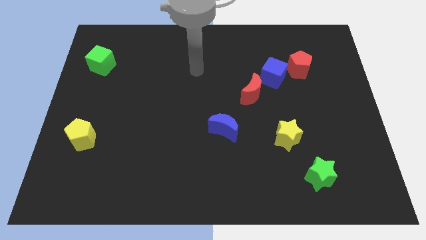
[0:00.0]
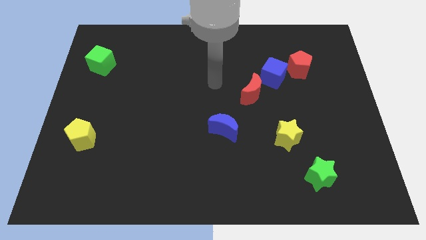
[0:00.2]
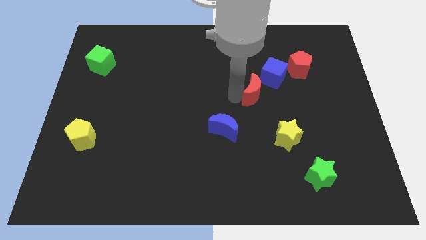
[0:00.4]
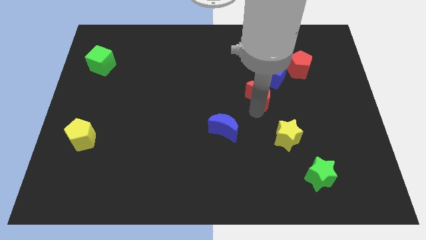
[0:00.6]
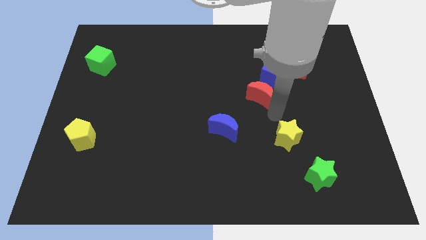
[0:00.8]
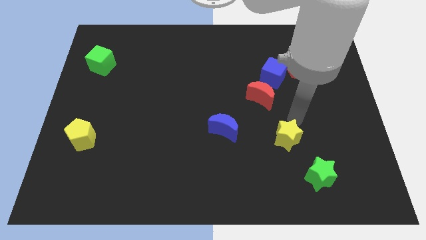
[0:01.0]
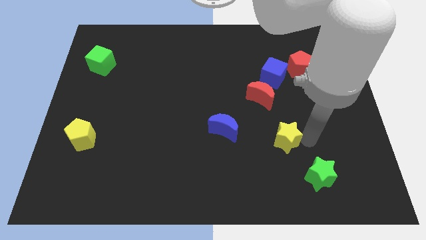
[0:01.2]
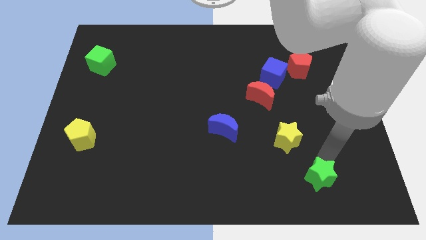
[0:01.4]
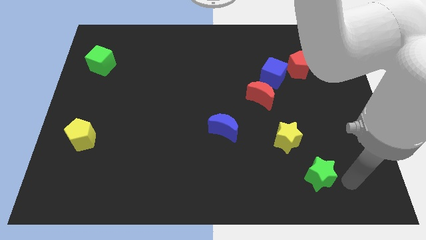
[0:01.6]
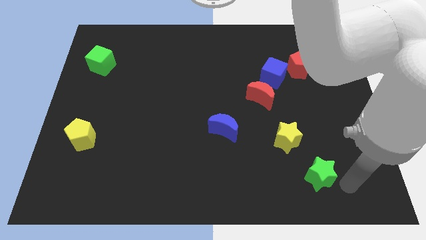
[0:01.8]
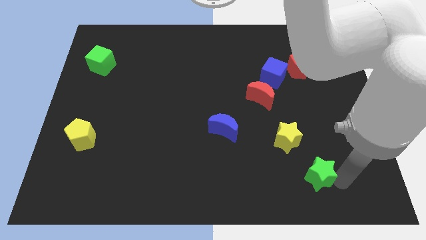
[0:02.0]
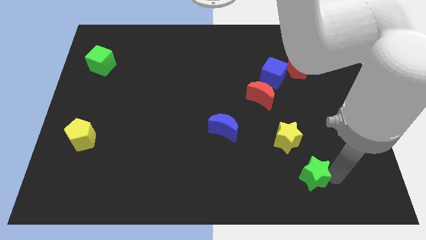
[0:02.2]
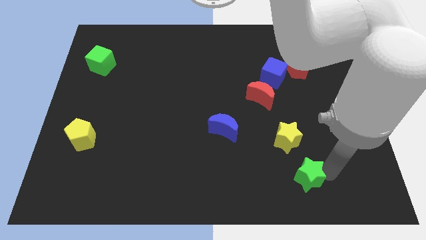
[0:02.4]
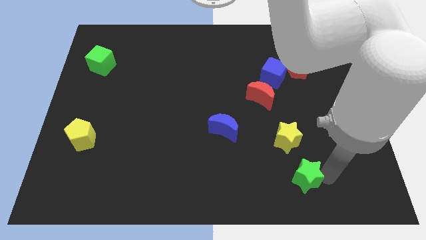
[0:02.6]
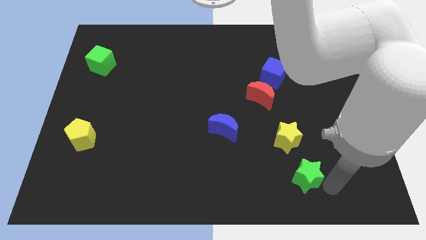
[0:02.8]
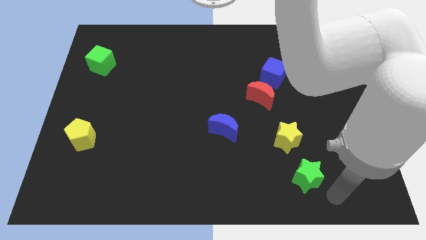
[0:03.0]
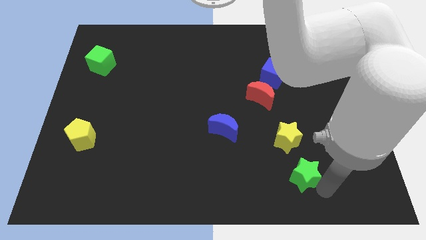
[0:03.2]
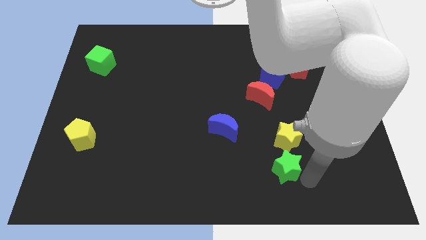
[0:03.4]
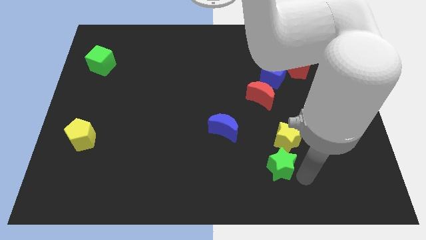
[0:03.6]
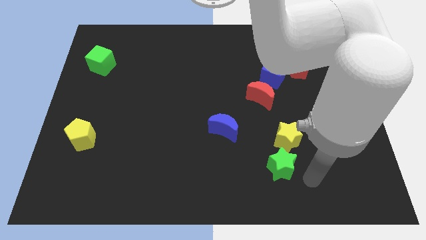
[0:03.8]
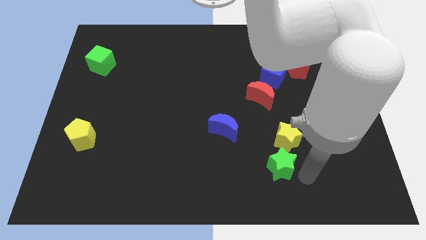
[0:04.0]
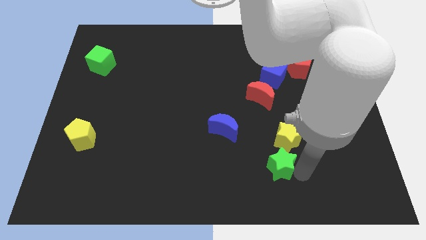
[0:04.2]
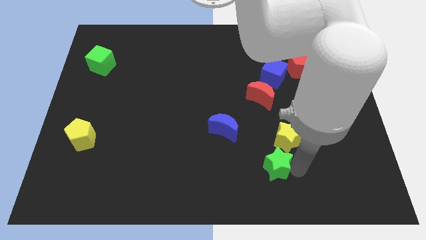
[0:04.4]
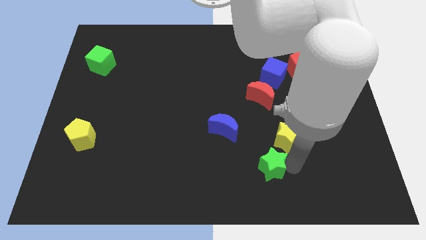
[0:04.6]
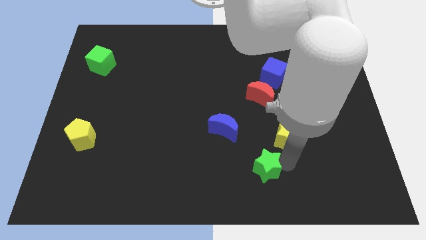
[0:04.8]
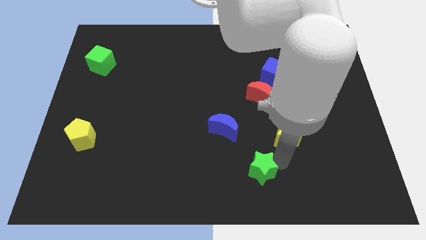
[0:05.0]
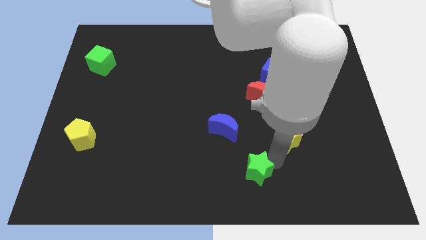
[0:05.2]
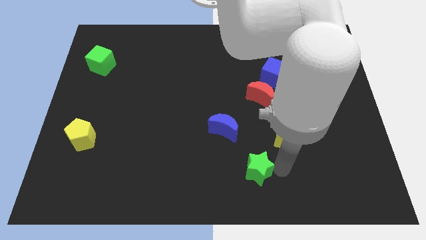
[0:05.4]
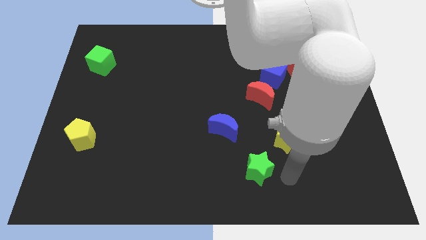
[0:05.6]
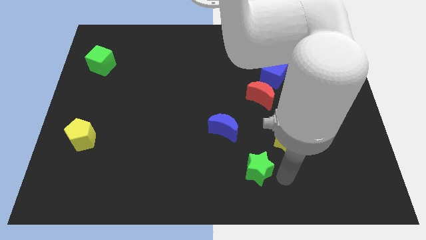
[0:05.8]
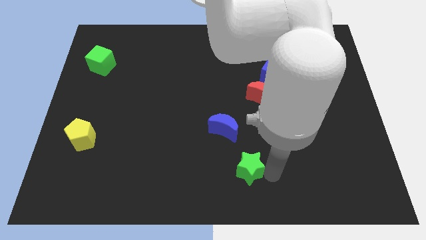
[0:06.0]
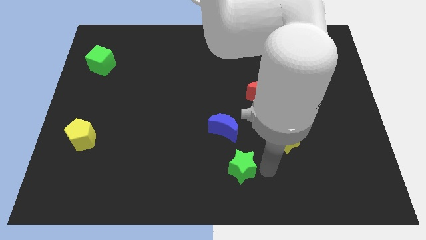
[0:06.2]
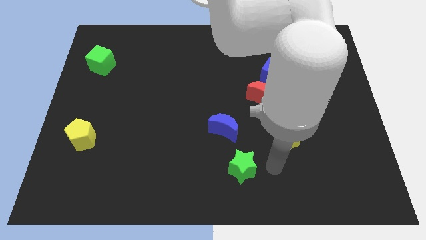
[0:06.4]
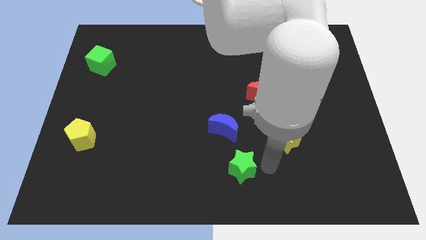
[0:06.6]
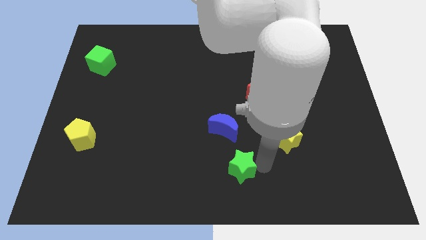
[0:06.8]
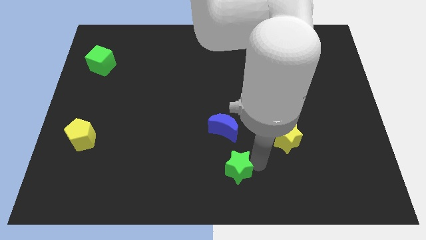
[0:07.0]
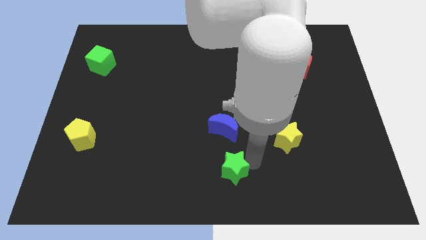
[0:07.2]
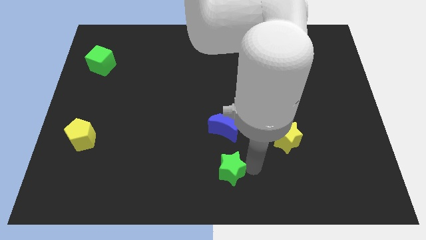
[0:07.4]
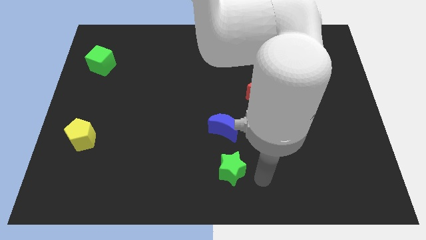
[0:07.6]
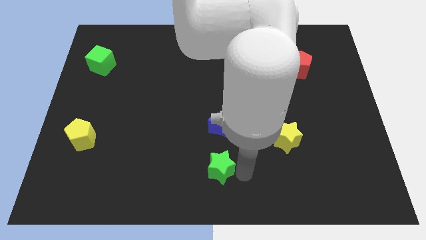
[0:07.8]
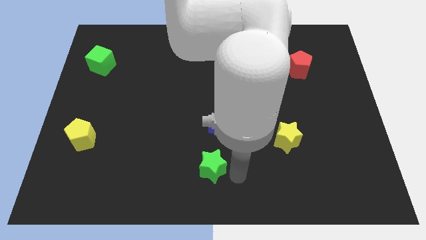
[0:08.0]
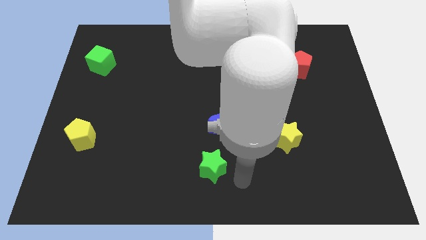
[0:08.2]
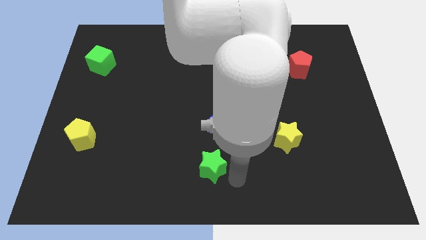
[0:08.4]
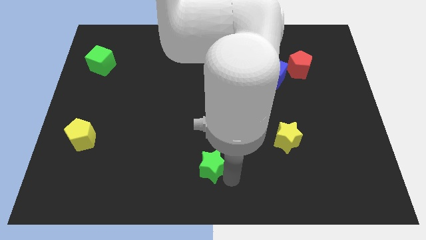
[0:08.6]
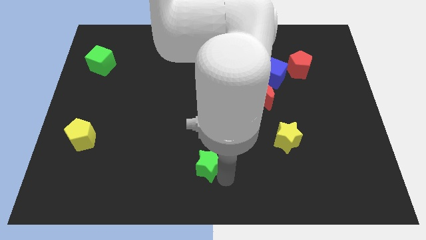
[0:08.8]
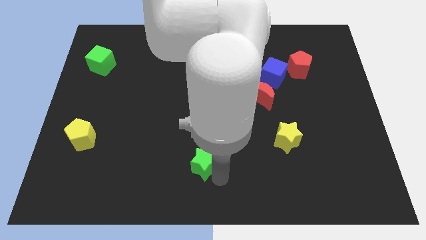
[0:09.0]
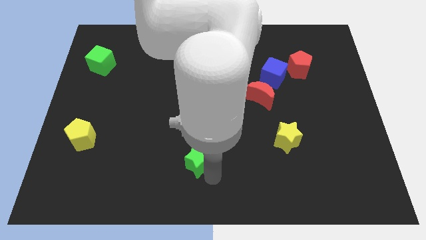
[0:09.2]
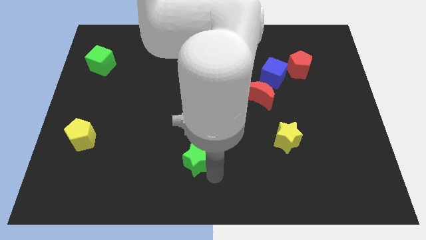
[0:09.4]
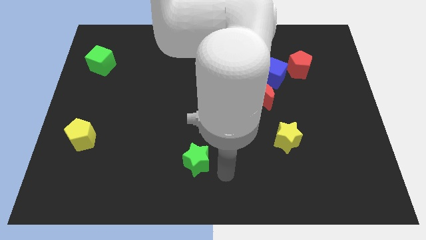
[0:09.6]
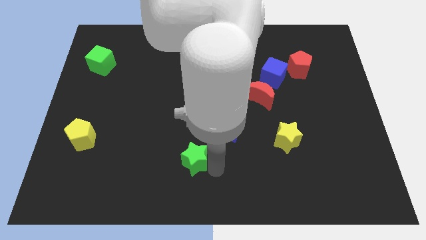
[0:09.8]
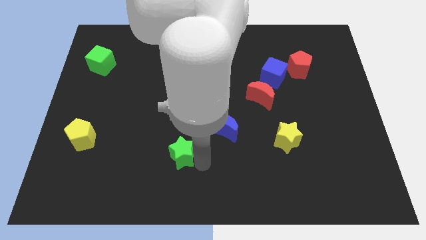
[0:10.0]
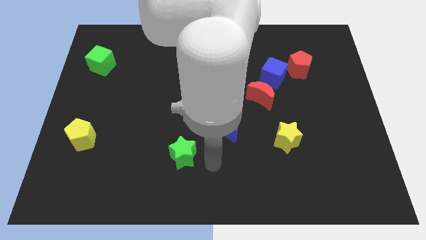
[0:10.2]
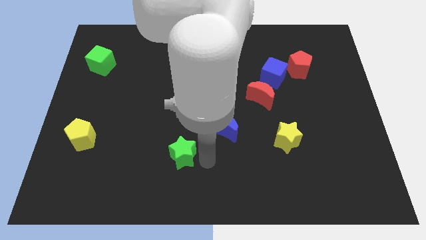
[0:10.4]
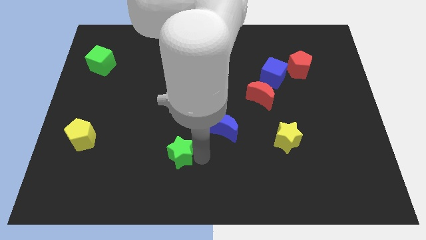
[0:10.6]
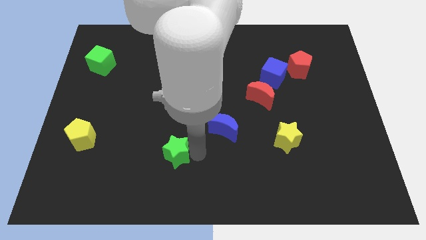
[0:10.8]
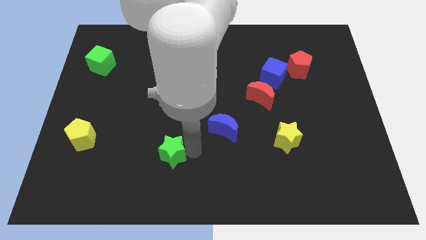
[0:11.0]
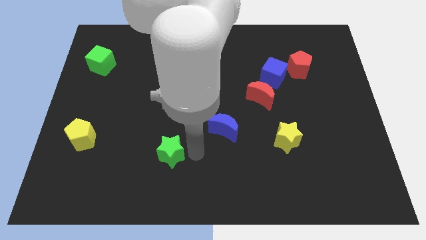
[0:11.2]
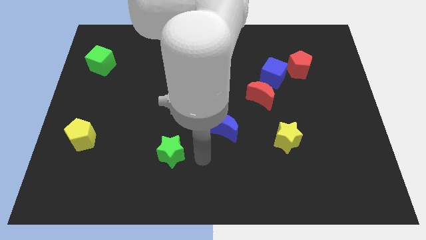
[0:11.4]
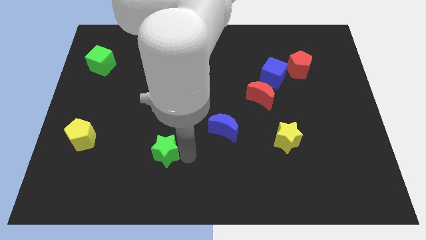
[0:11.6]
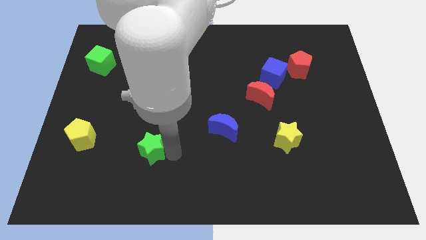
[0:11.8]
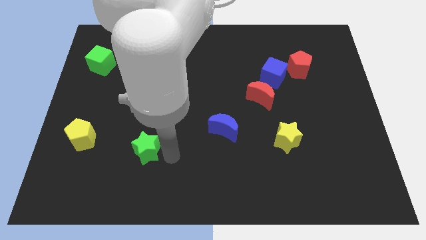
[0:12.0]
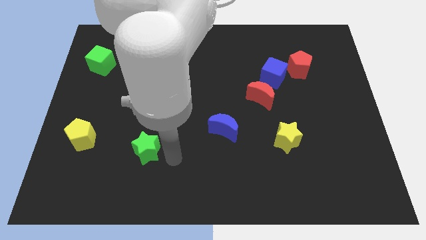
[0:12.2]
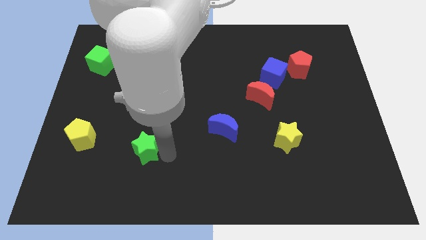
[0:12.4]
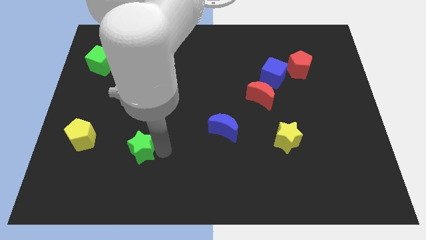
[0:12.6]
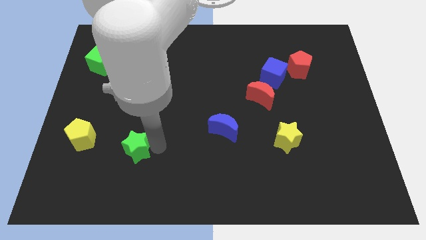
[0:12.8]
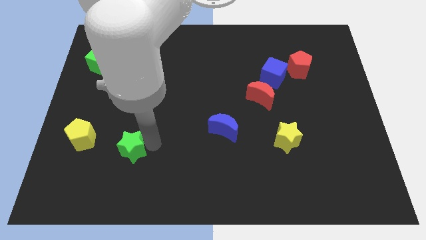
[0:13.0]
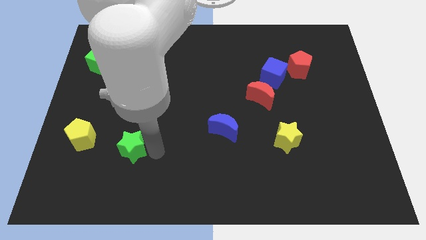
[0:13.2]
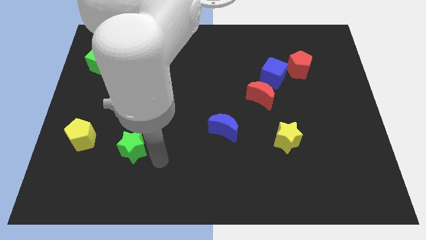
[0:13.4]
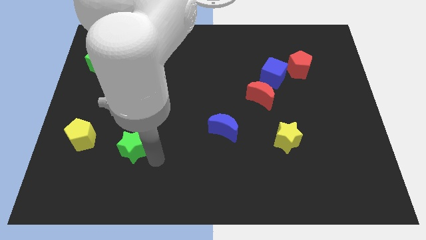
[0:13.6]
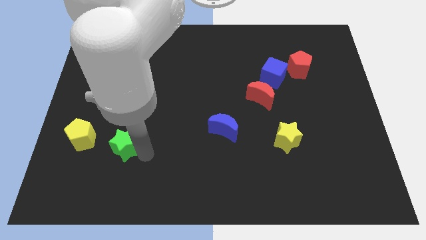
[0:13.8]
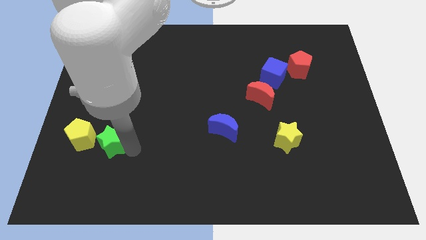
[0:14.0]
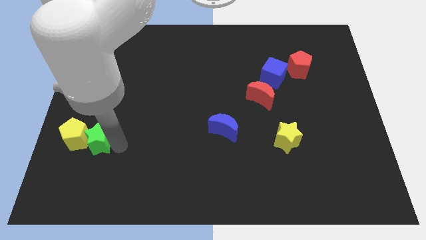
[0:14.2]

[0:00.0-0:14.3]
put the green star to the yellow pentagon

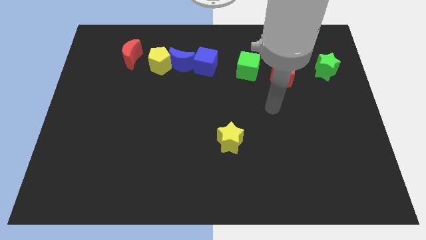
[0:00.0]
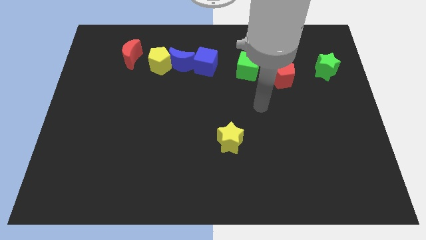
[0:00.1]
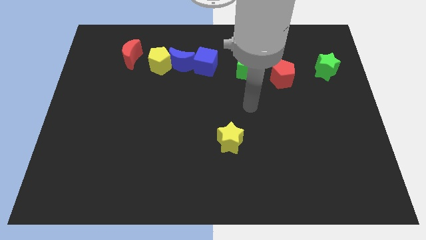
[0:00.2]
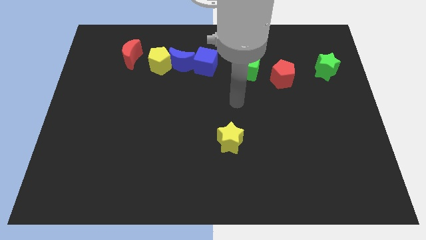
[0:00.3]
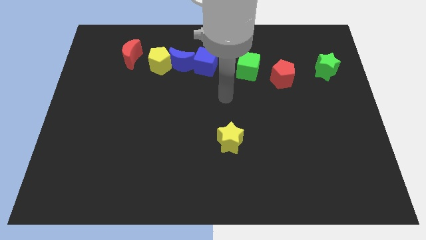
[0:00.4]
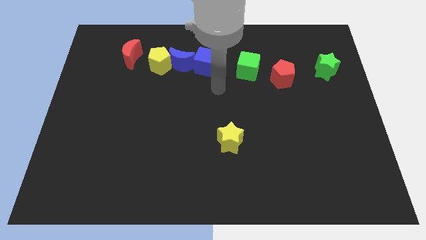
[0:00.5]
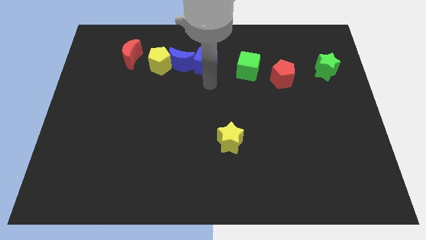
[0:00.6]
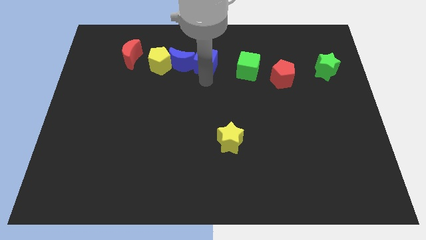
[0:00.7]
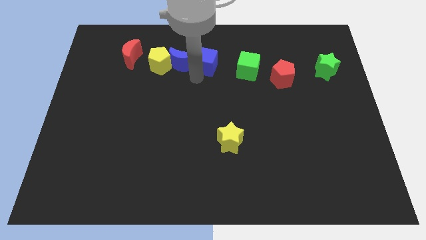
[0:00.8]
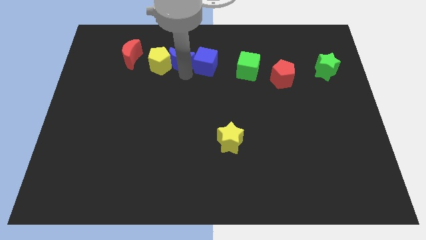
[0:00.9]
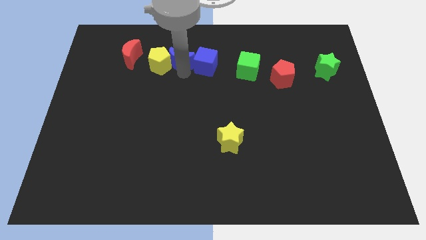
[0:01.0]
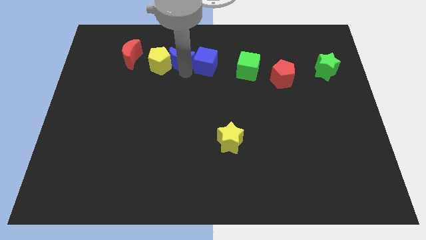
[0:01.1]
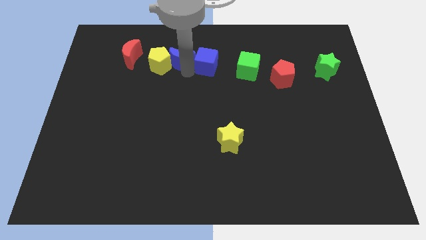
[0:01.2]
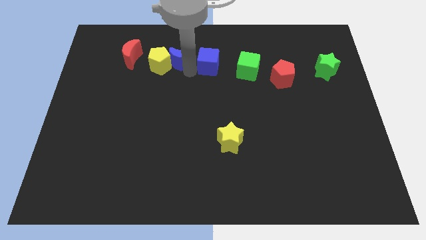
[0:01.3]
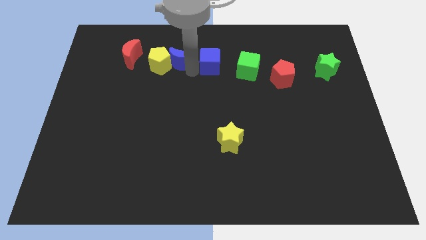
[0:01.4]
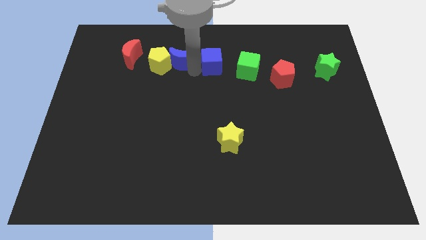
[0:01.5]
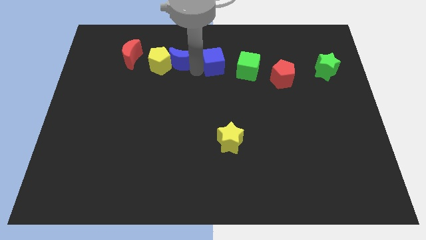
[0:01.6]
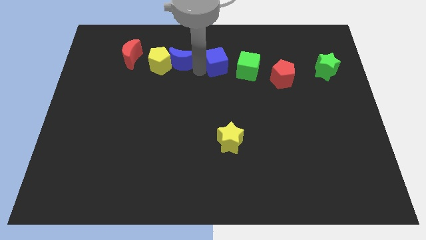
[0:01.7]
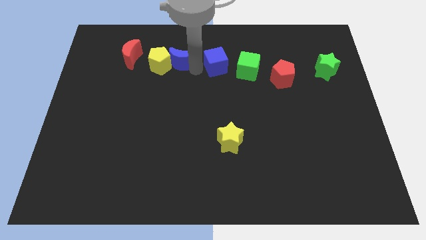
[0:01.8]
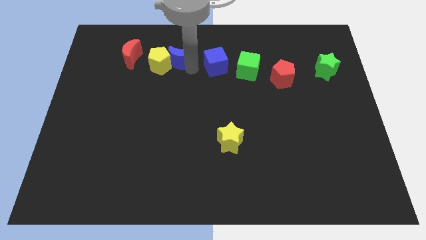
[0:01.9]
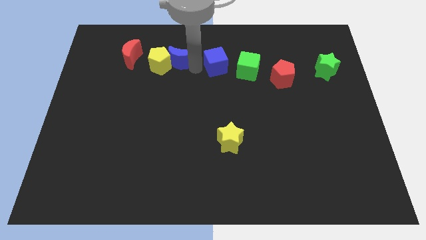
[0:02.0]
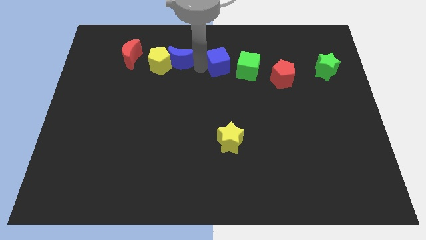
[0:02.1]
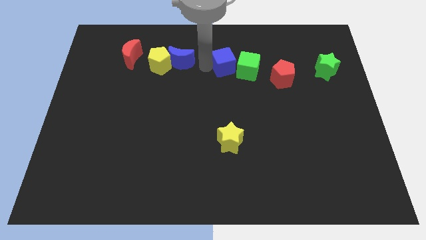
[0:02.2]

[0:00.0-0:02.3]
push the blue cube next to the green cube
